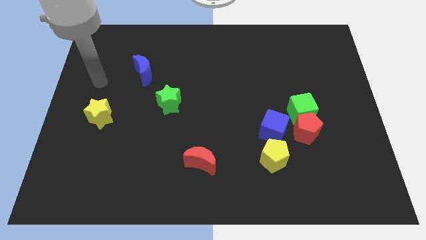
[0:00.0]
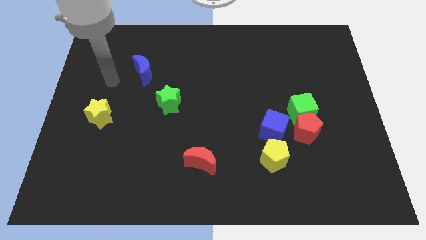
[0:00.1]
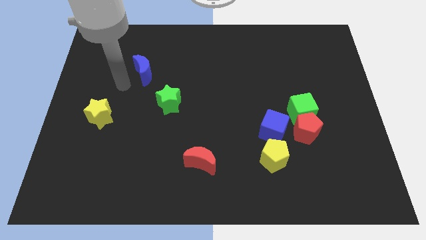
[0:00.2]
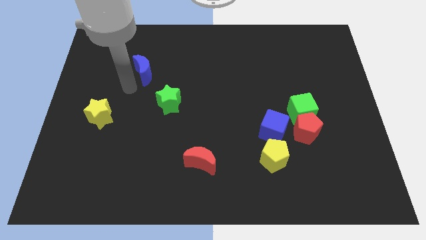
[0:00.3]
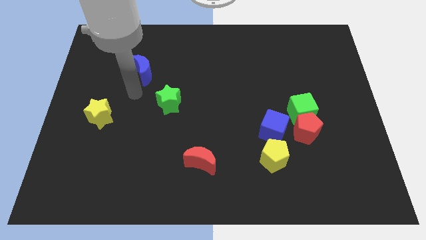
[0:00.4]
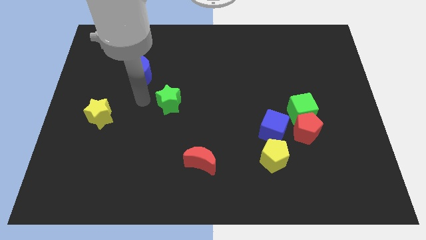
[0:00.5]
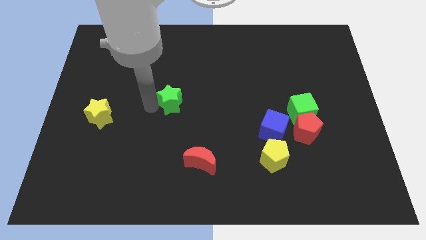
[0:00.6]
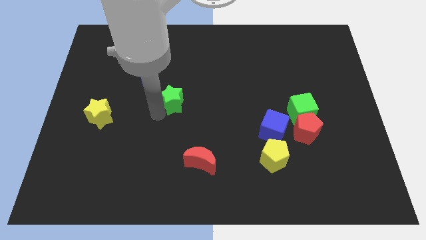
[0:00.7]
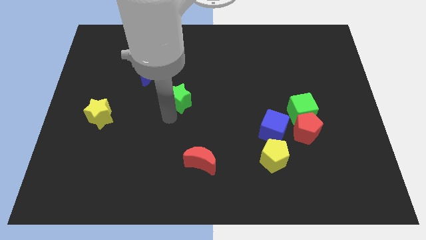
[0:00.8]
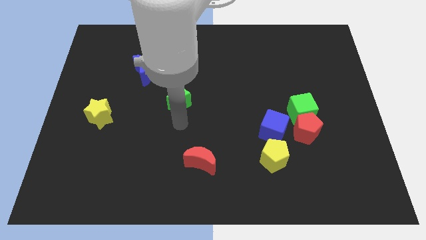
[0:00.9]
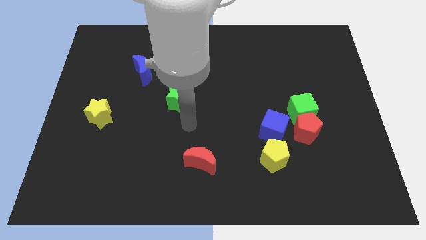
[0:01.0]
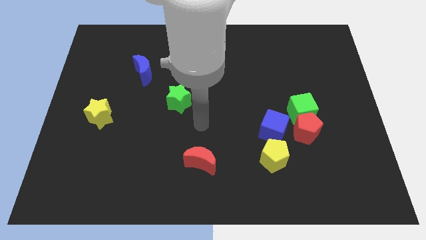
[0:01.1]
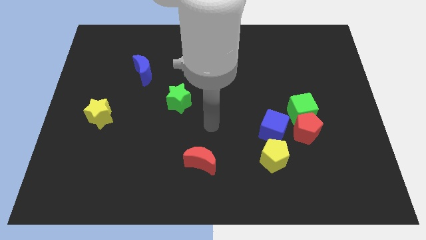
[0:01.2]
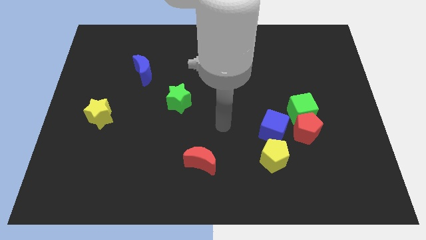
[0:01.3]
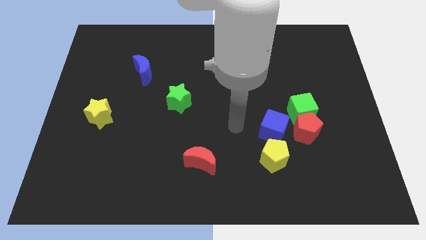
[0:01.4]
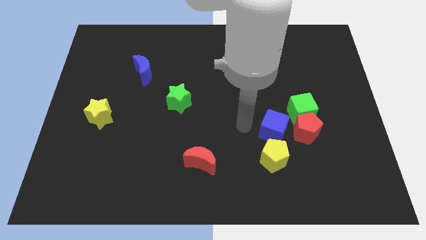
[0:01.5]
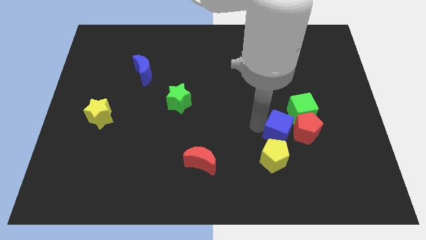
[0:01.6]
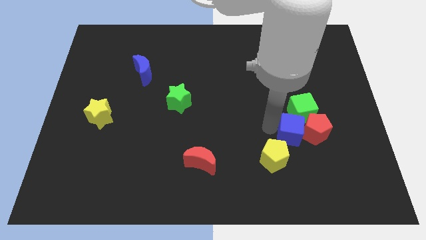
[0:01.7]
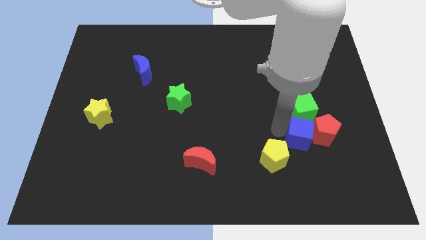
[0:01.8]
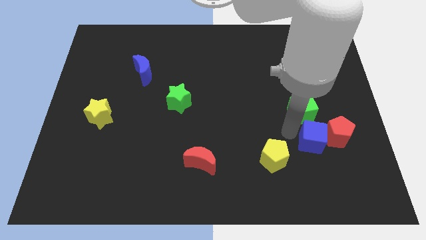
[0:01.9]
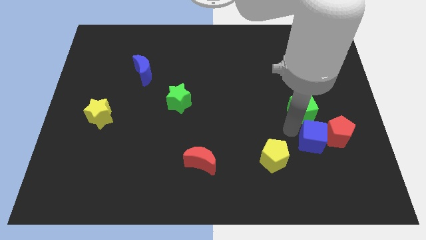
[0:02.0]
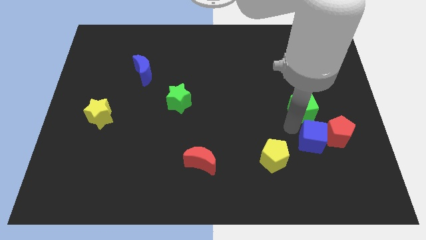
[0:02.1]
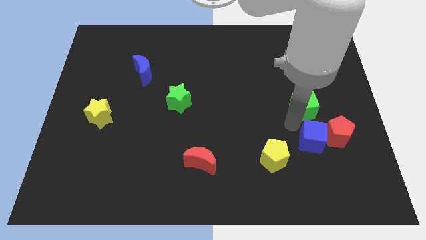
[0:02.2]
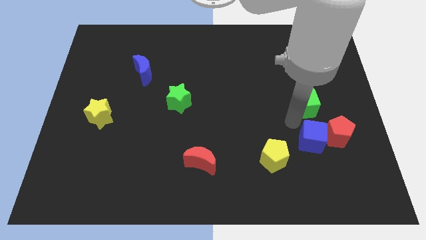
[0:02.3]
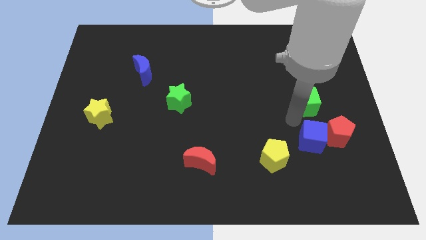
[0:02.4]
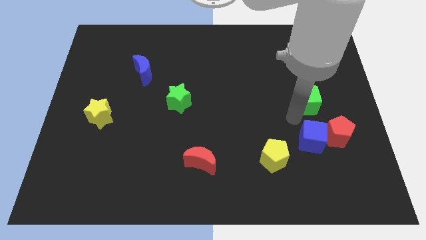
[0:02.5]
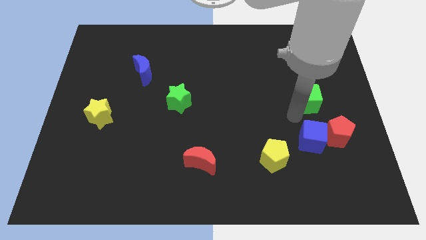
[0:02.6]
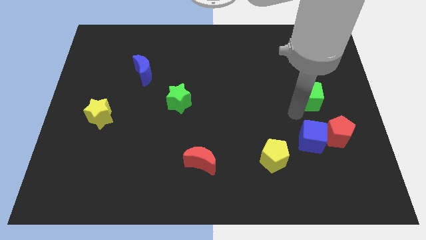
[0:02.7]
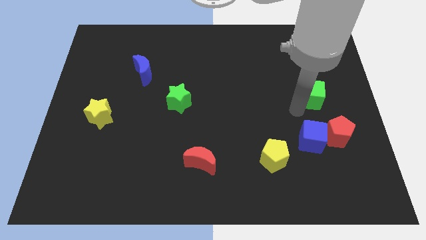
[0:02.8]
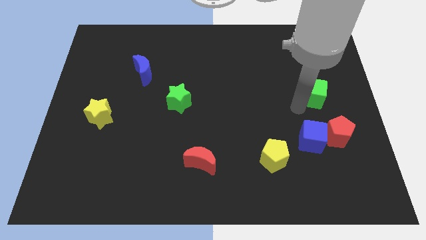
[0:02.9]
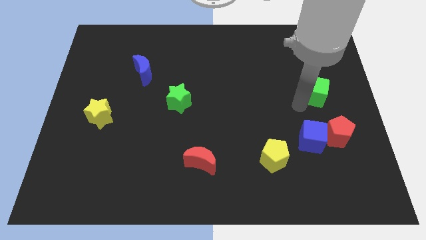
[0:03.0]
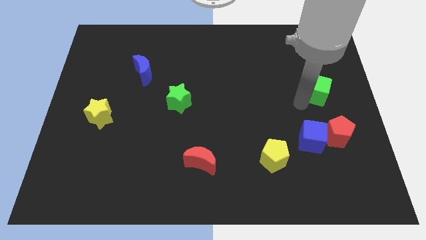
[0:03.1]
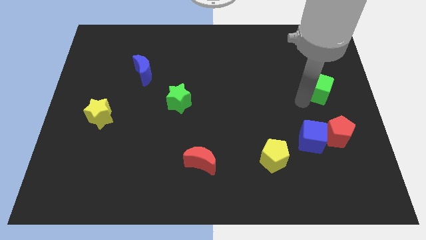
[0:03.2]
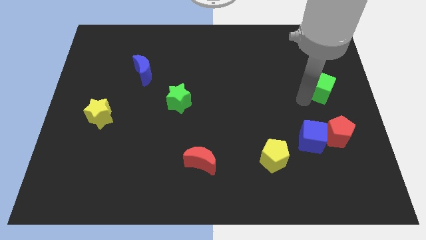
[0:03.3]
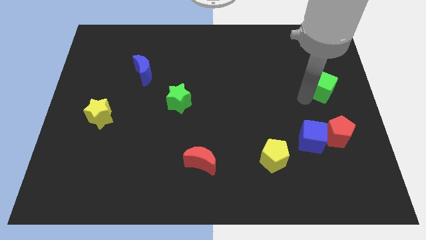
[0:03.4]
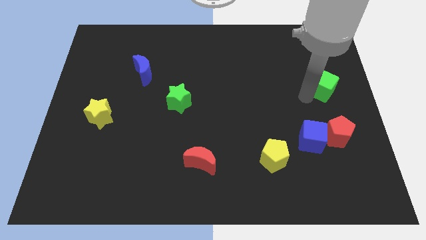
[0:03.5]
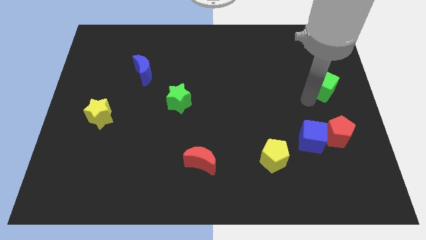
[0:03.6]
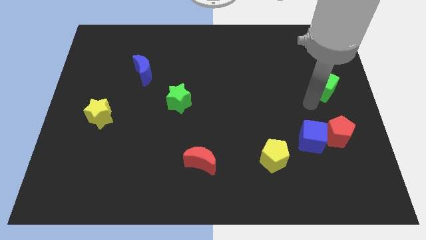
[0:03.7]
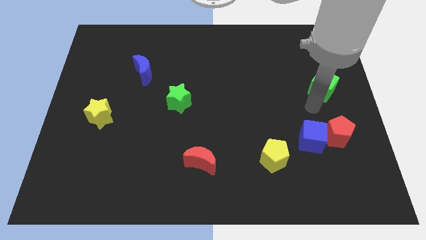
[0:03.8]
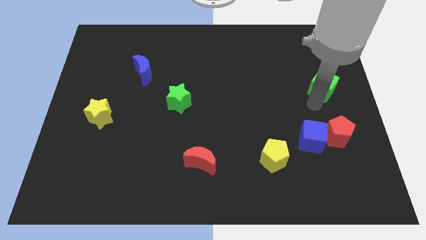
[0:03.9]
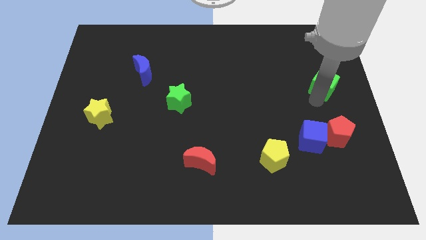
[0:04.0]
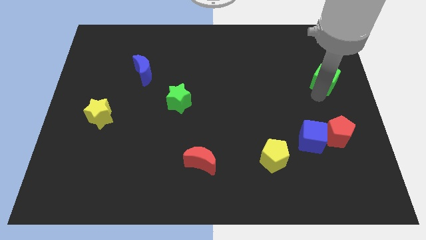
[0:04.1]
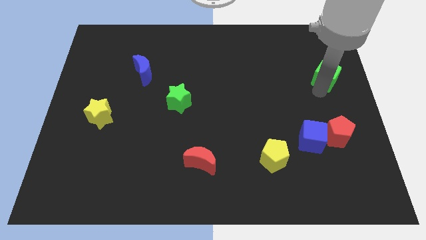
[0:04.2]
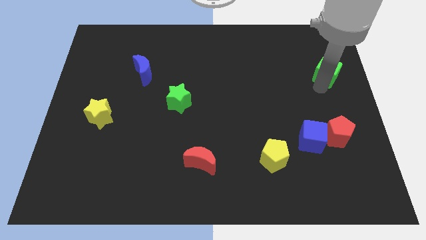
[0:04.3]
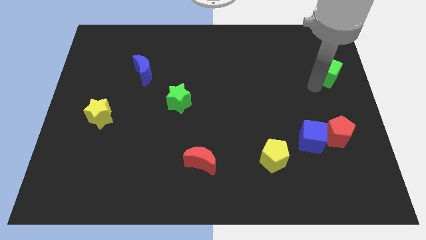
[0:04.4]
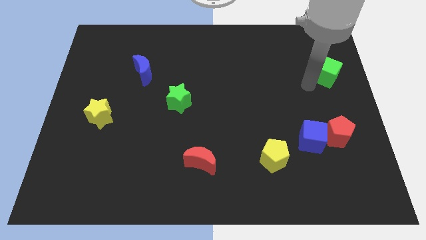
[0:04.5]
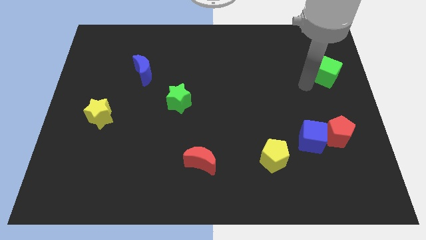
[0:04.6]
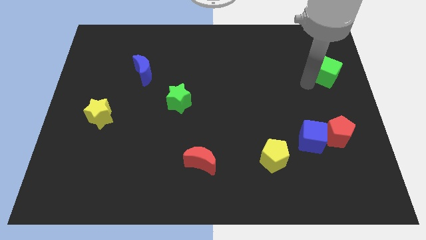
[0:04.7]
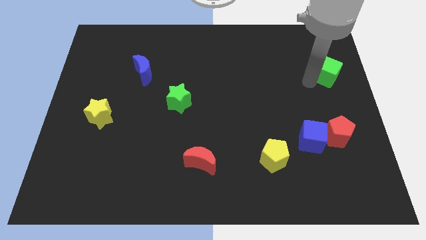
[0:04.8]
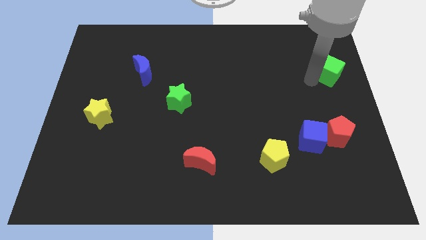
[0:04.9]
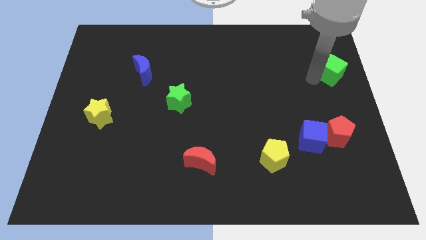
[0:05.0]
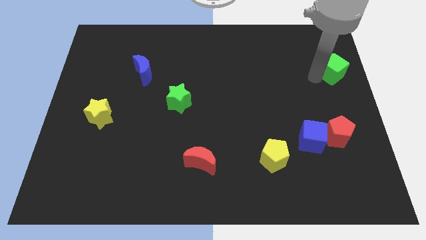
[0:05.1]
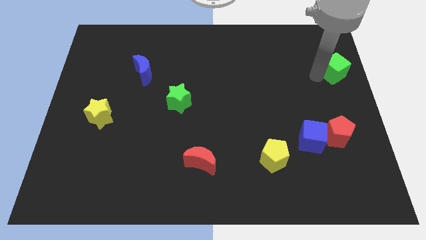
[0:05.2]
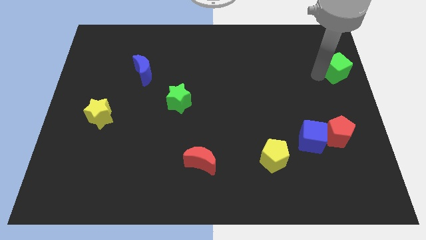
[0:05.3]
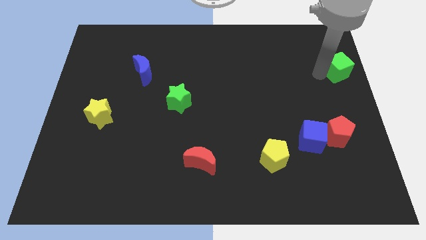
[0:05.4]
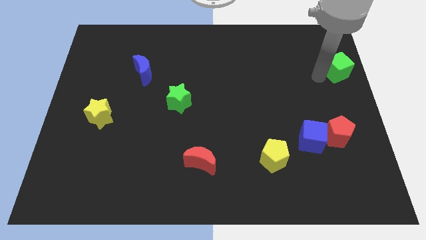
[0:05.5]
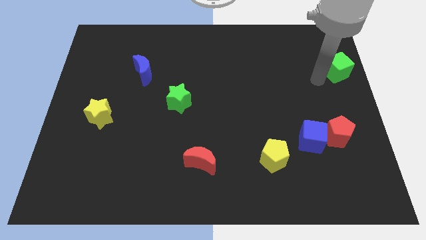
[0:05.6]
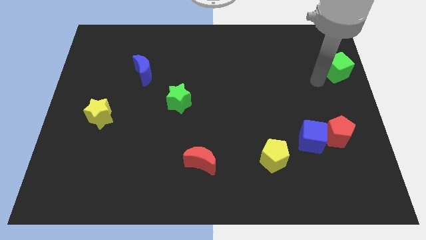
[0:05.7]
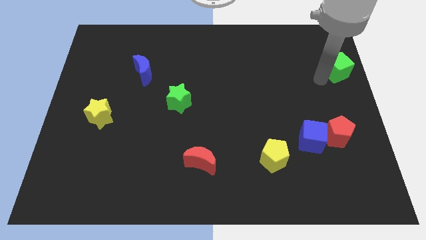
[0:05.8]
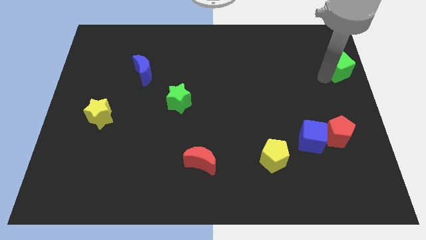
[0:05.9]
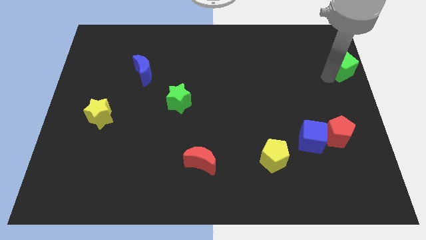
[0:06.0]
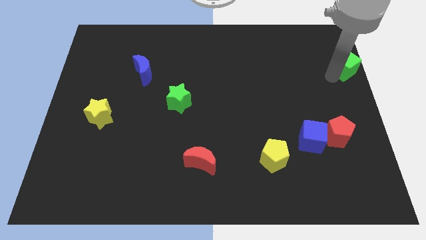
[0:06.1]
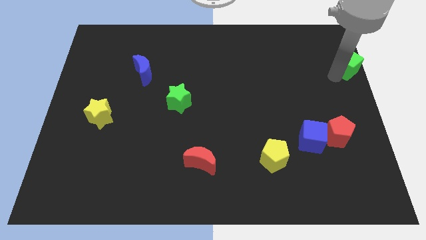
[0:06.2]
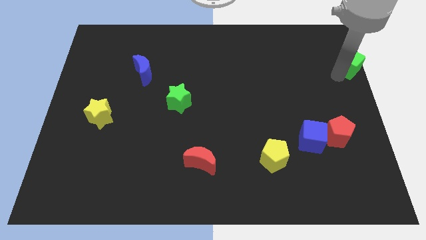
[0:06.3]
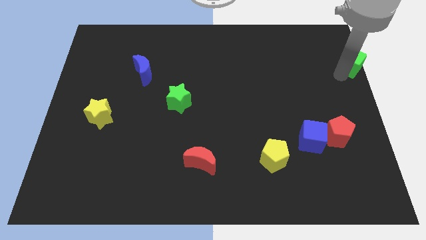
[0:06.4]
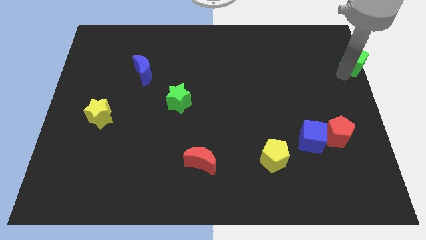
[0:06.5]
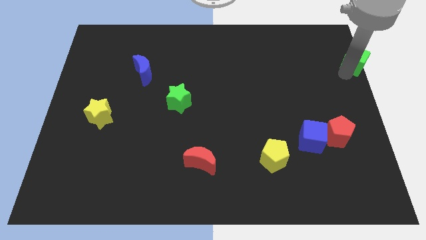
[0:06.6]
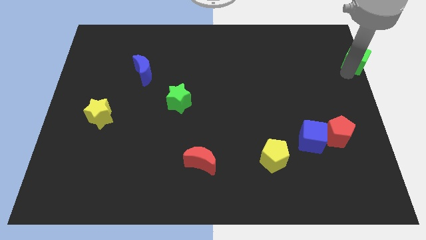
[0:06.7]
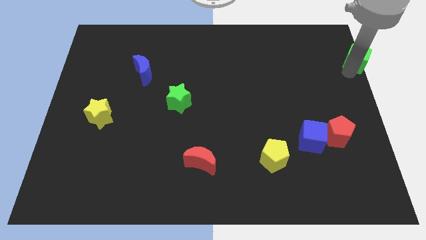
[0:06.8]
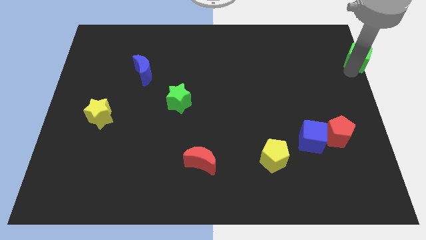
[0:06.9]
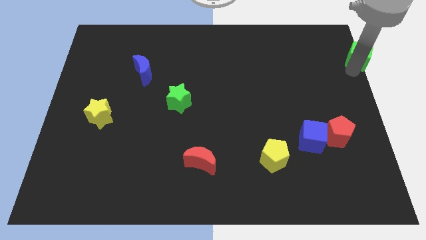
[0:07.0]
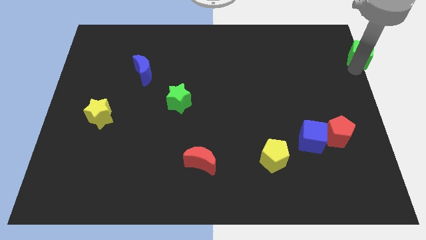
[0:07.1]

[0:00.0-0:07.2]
put the green cube to the upper right corner
